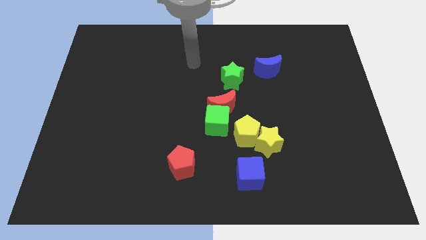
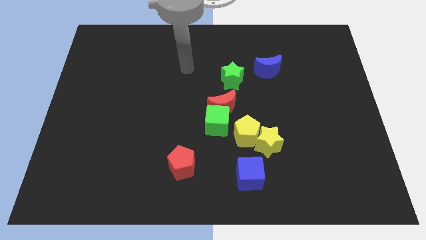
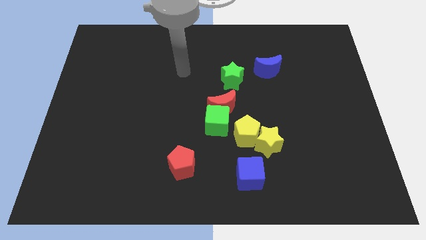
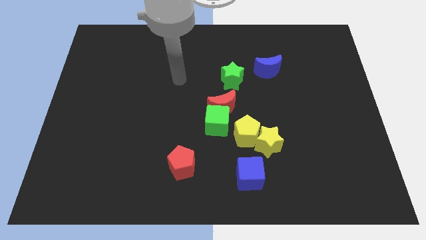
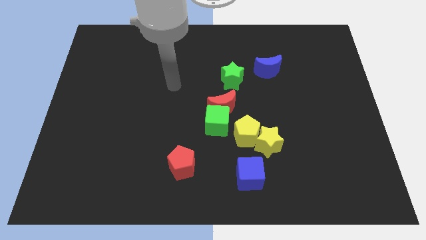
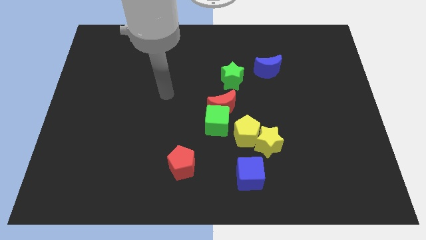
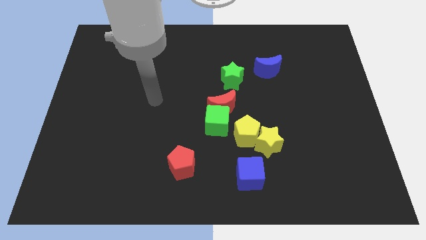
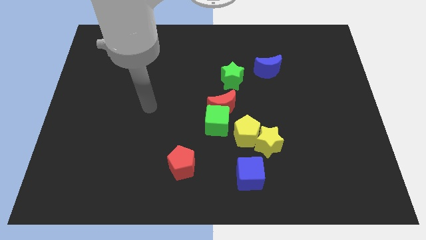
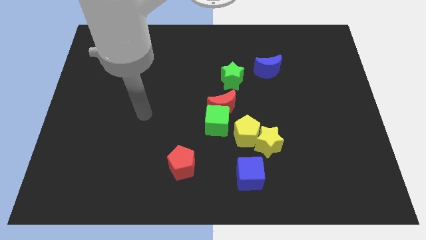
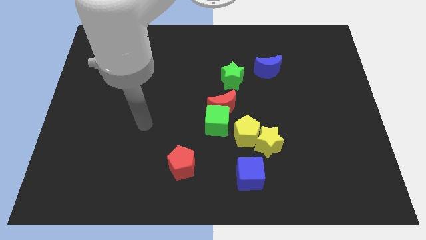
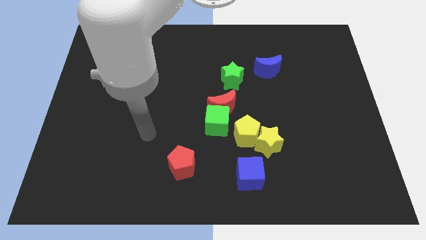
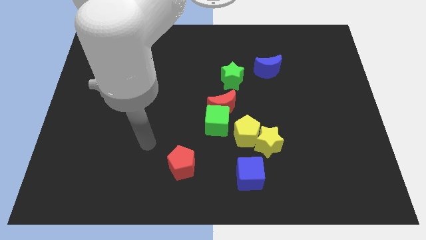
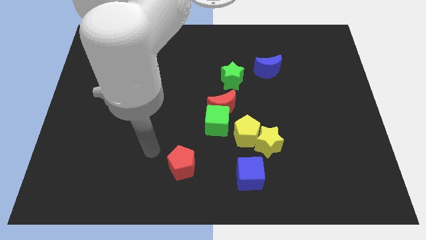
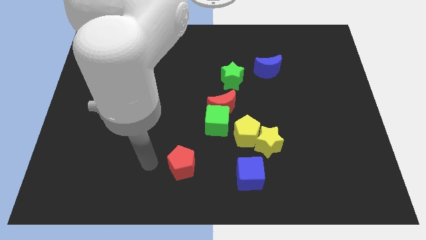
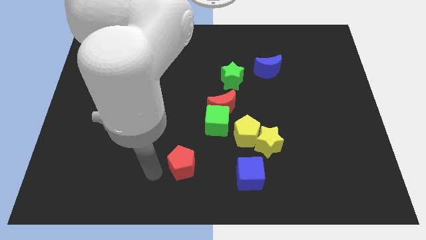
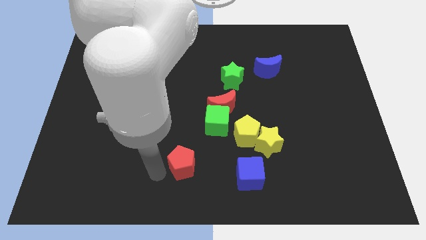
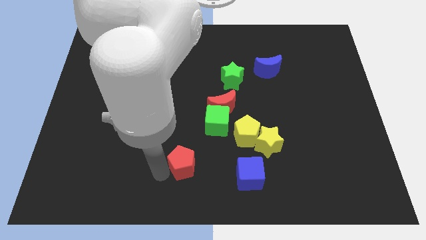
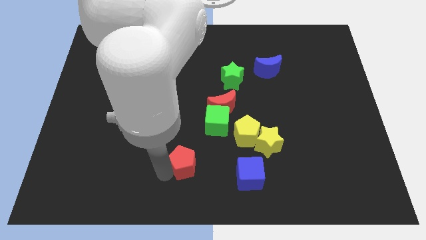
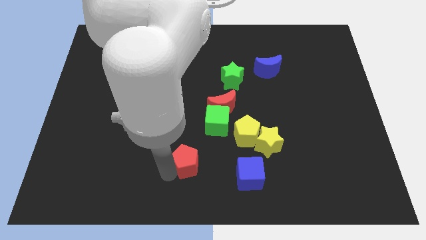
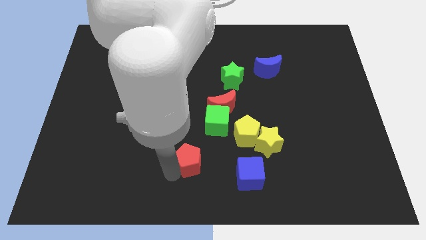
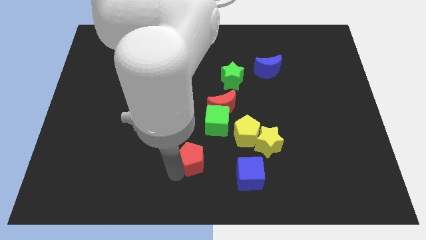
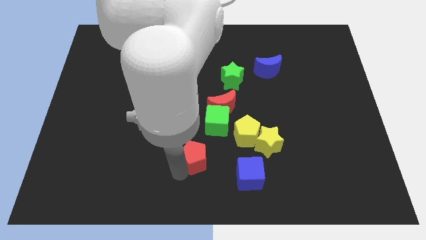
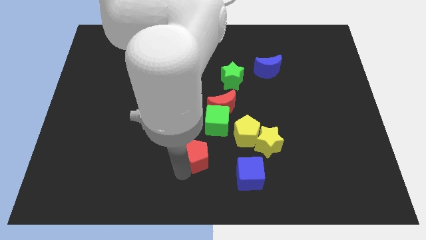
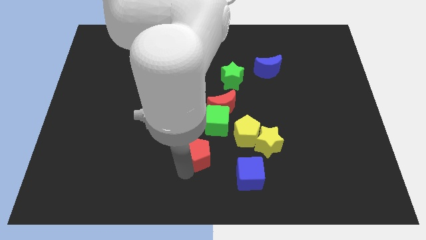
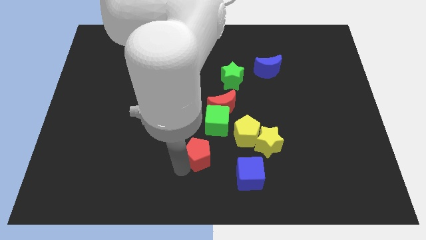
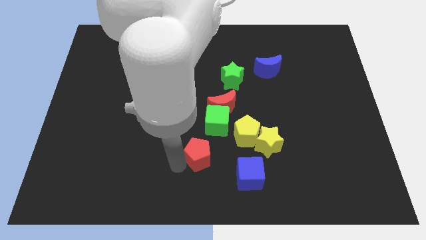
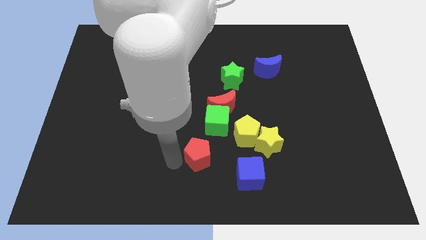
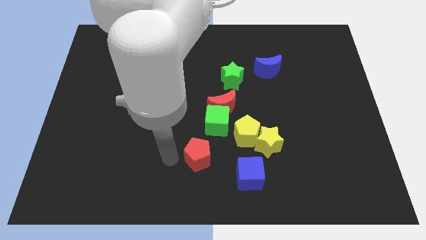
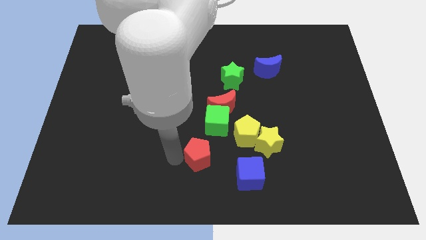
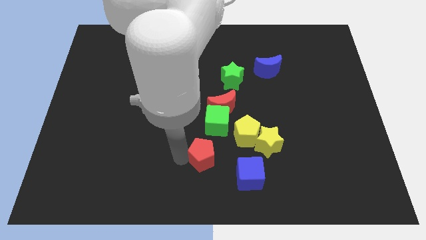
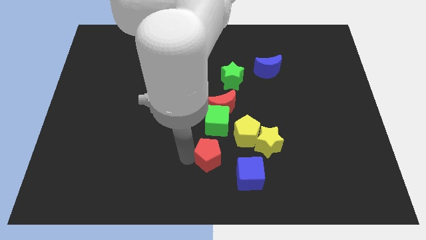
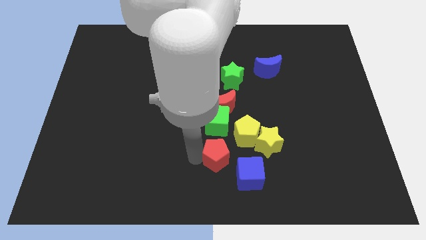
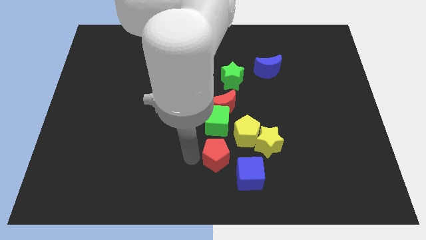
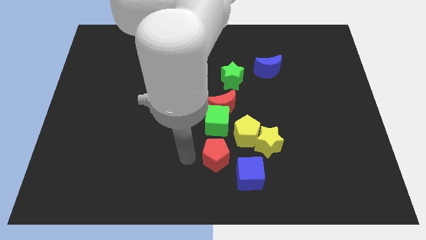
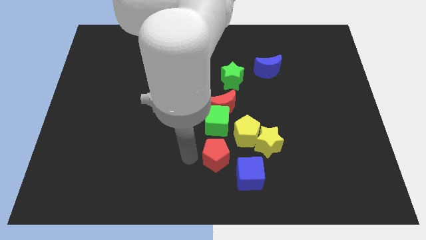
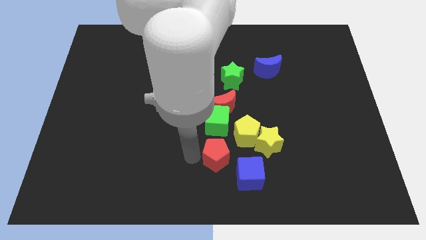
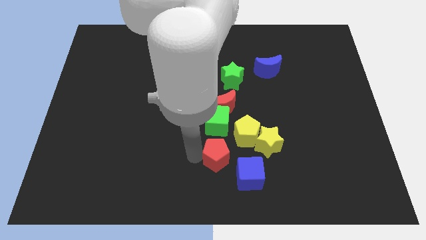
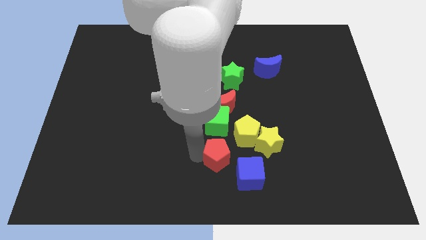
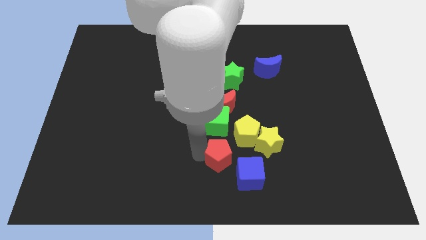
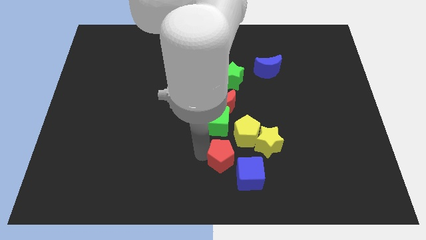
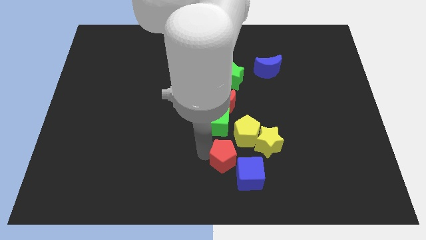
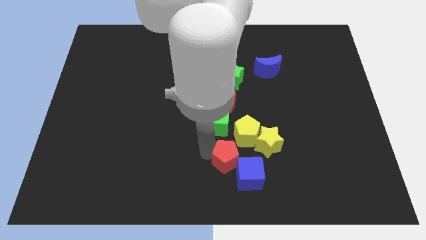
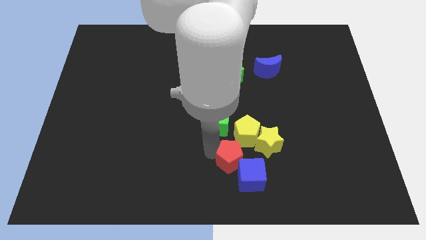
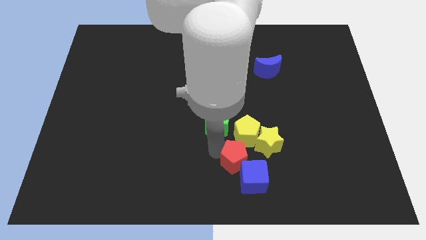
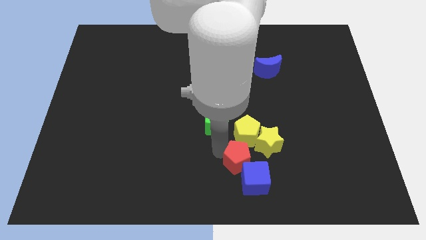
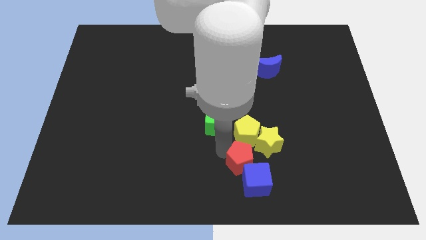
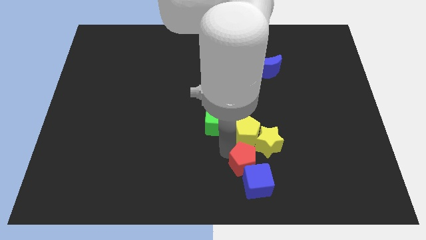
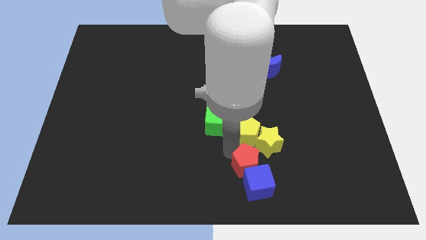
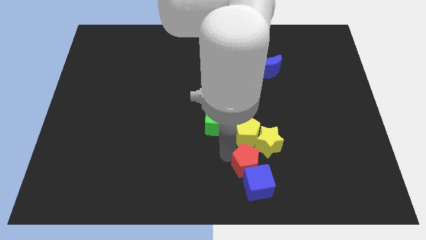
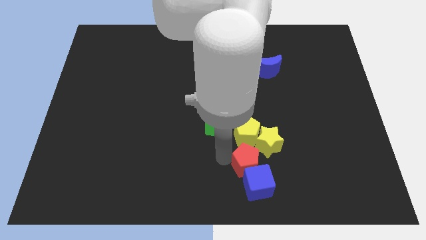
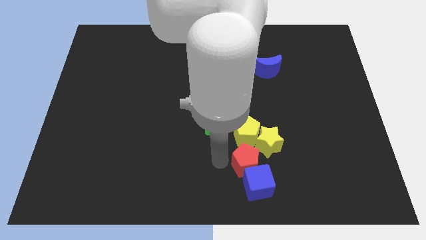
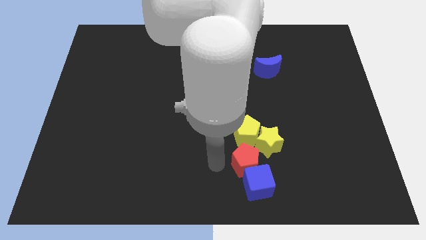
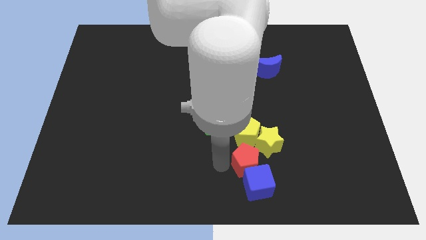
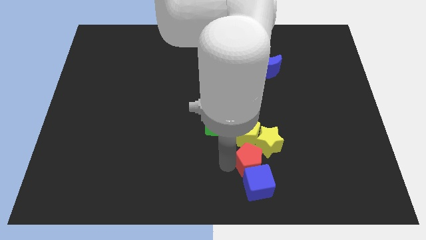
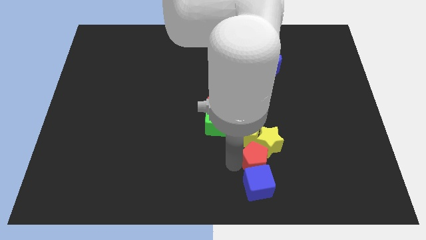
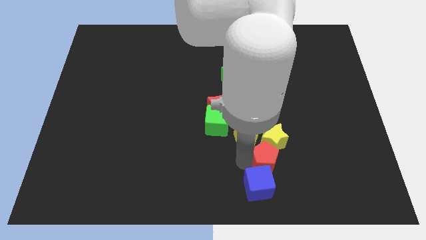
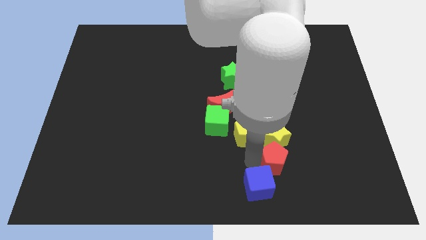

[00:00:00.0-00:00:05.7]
put the red pentagon diagonally down and to the right of the yellow star

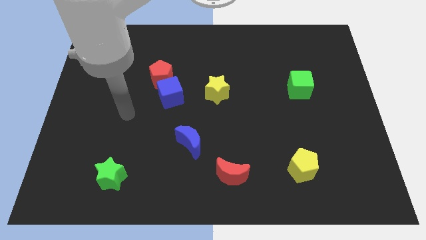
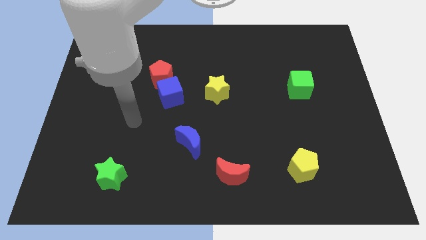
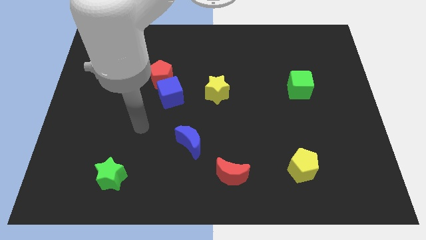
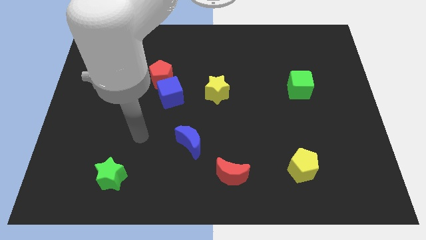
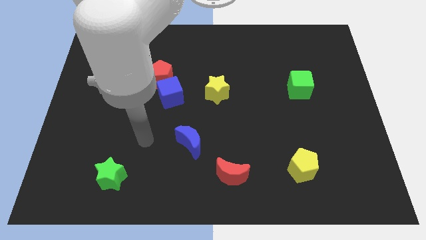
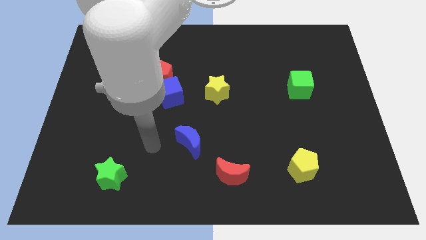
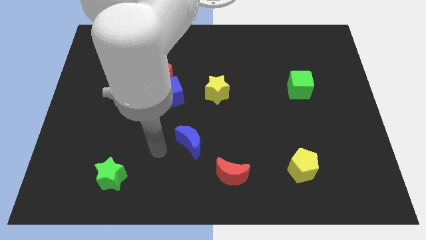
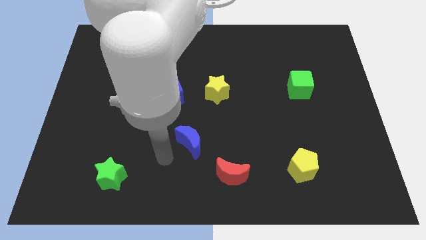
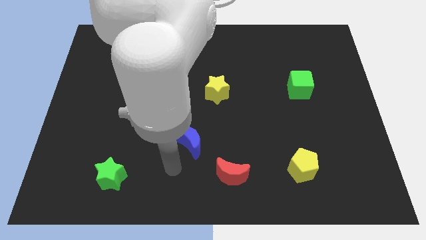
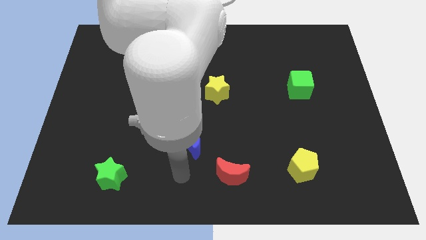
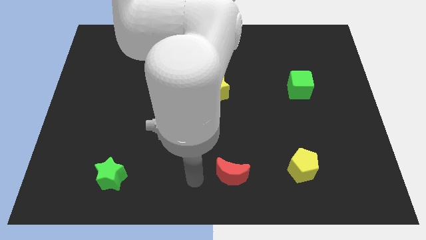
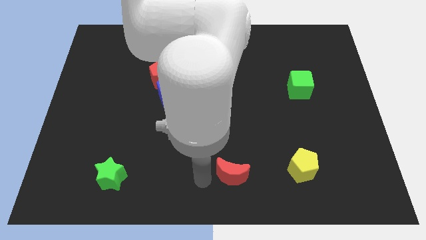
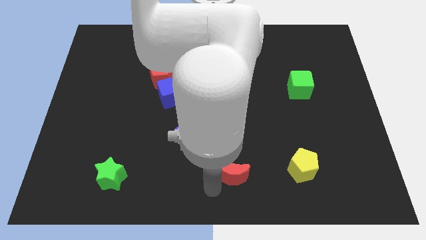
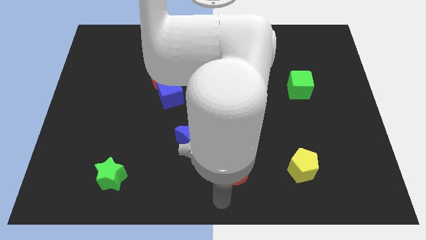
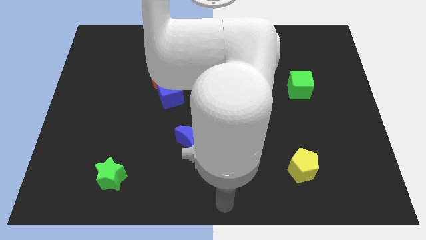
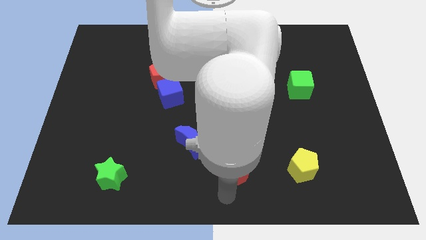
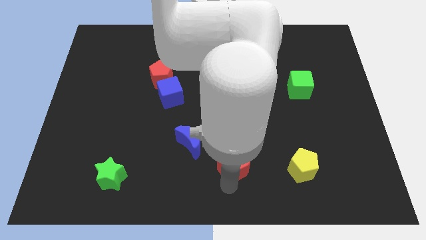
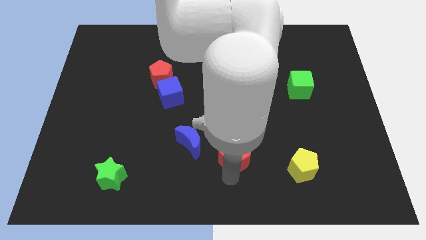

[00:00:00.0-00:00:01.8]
put the red moon to the right of the blue moon
